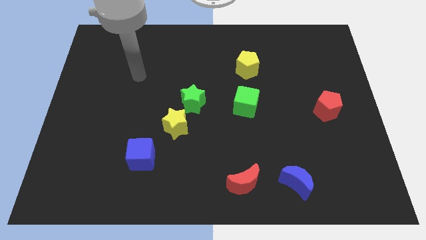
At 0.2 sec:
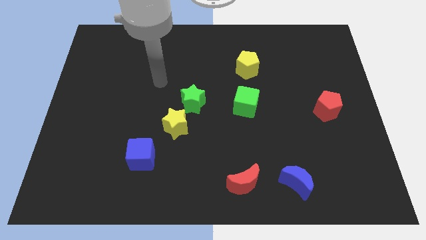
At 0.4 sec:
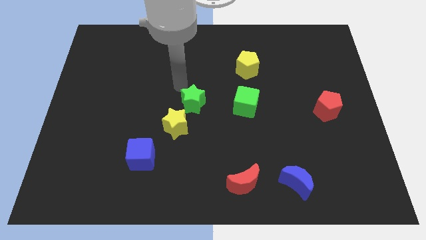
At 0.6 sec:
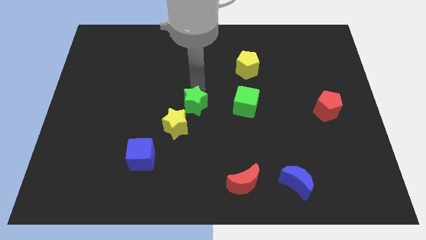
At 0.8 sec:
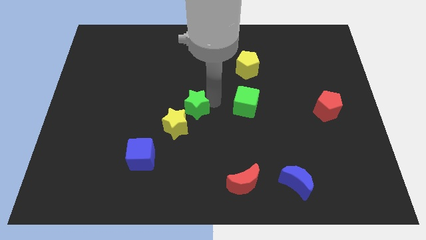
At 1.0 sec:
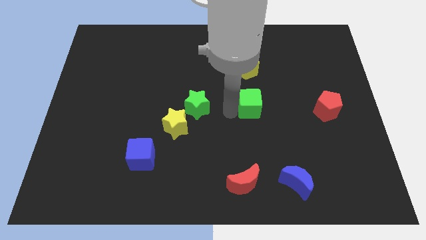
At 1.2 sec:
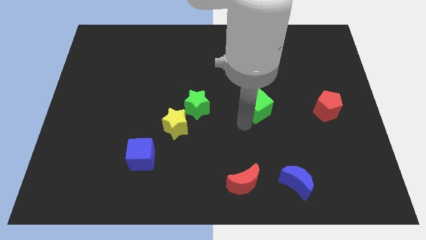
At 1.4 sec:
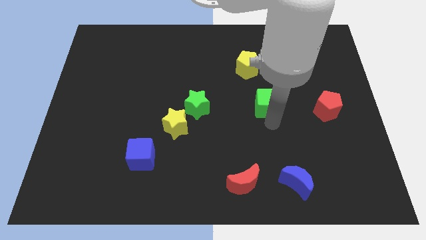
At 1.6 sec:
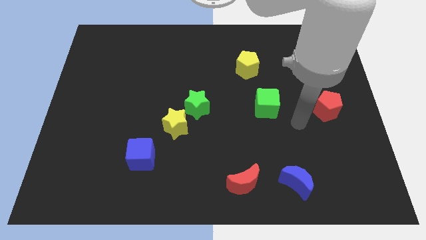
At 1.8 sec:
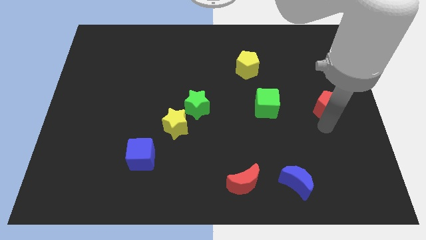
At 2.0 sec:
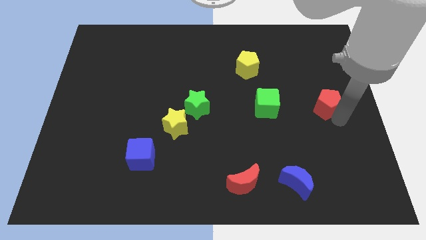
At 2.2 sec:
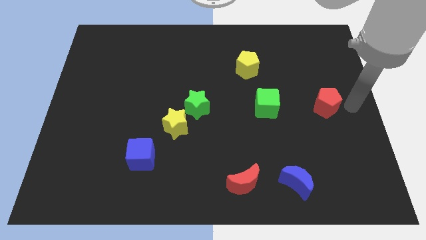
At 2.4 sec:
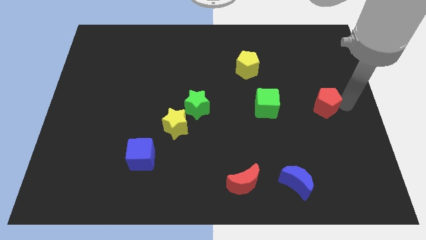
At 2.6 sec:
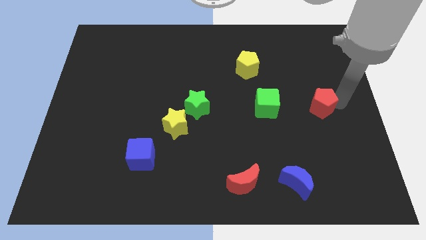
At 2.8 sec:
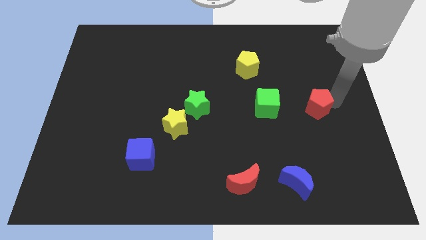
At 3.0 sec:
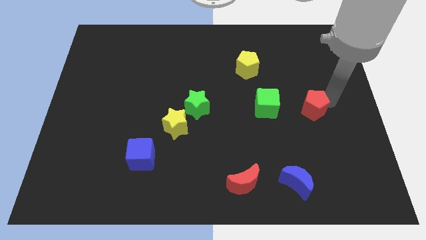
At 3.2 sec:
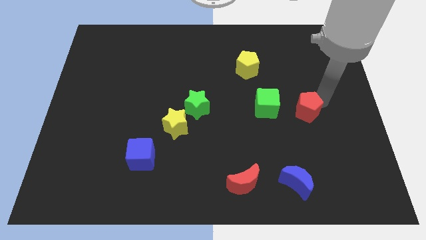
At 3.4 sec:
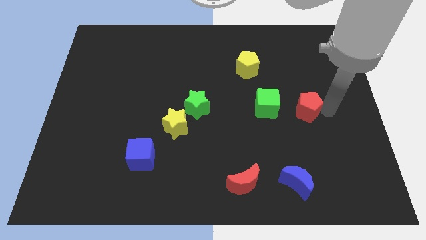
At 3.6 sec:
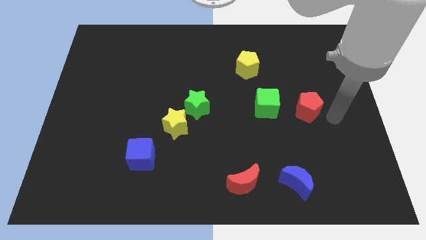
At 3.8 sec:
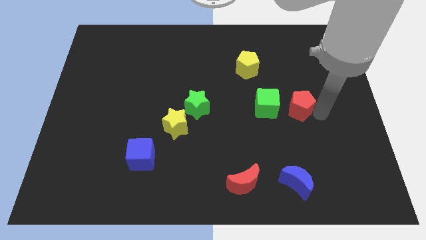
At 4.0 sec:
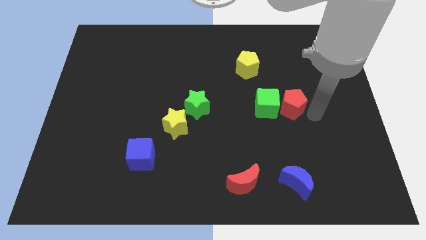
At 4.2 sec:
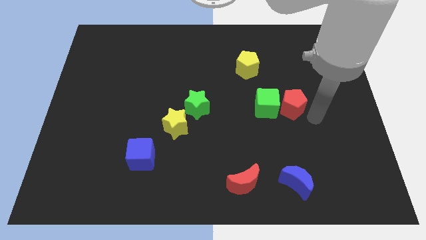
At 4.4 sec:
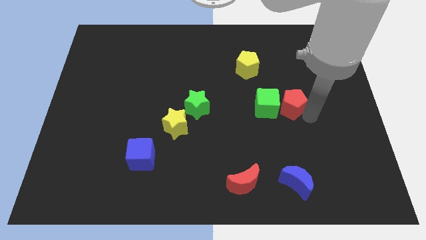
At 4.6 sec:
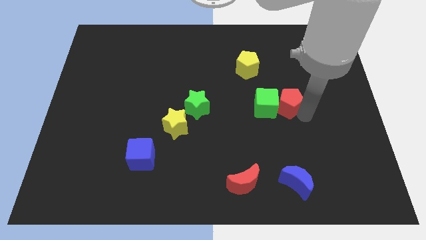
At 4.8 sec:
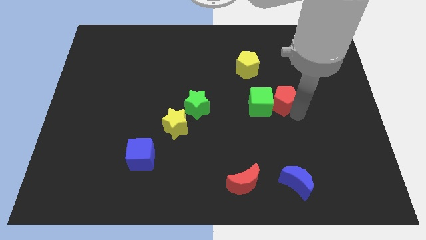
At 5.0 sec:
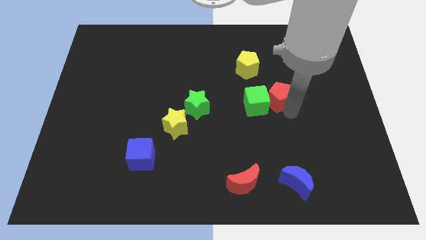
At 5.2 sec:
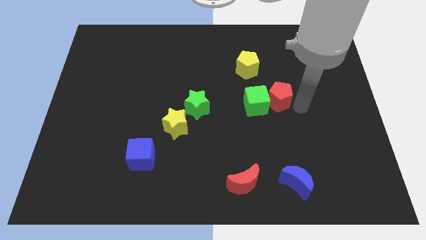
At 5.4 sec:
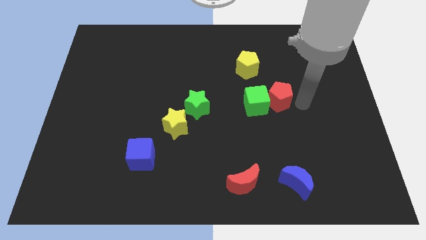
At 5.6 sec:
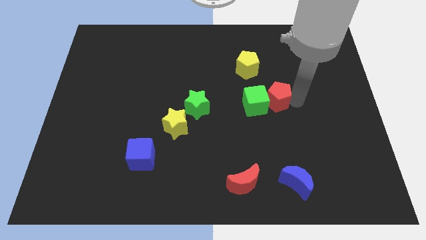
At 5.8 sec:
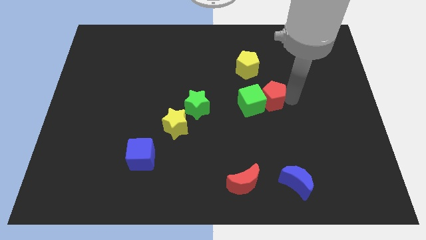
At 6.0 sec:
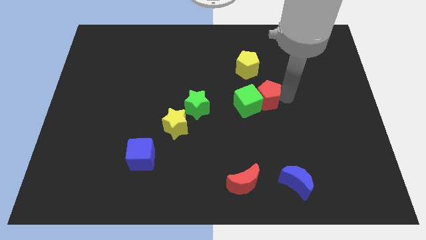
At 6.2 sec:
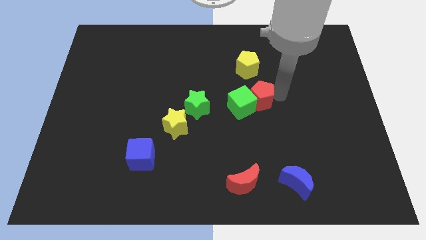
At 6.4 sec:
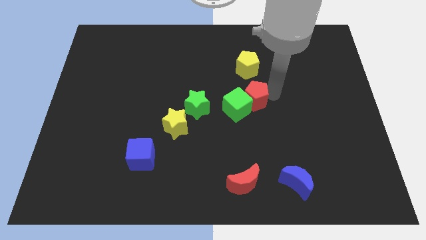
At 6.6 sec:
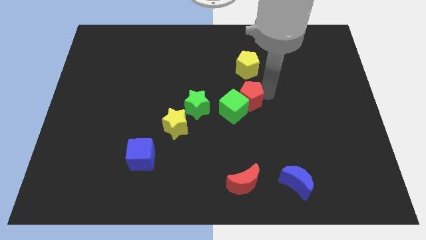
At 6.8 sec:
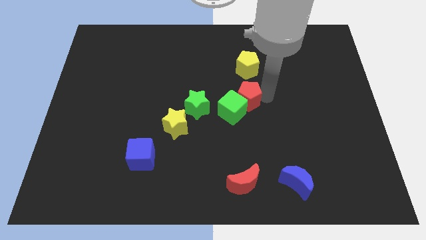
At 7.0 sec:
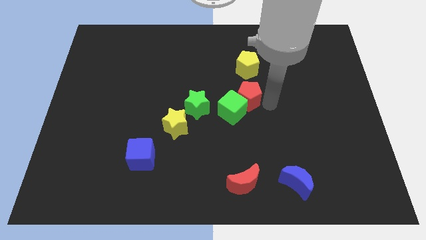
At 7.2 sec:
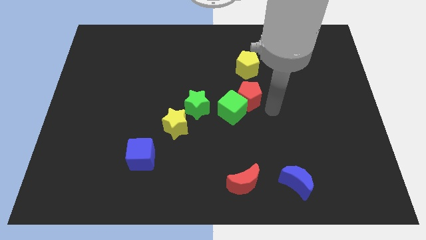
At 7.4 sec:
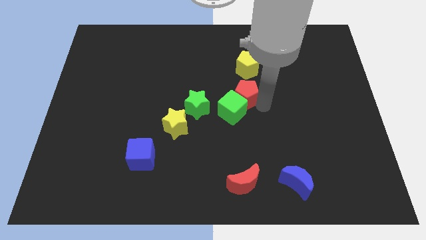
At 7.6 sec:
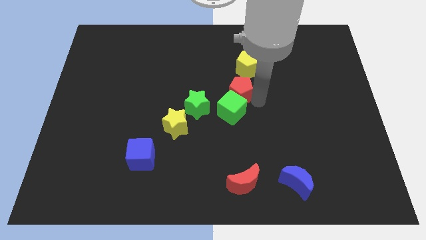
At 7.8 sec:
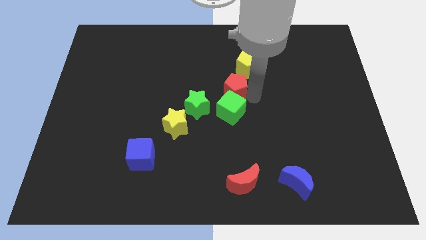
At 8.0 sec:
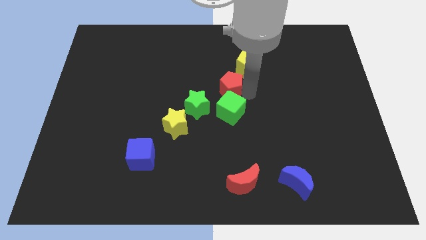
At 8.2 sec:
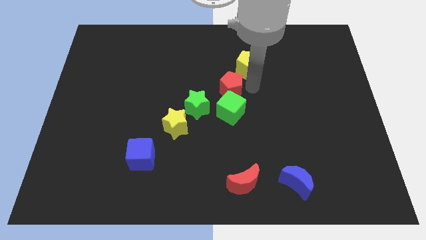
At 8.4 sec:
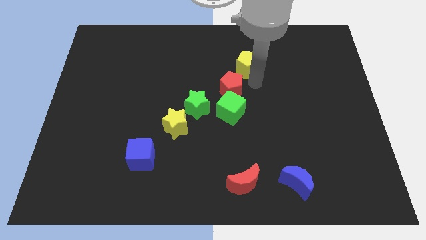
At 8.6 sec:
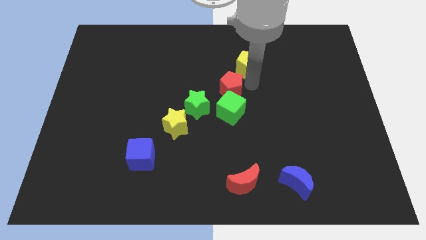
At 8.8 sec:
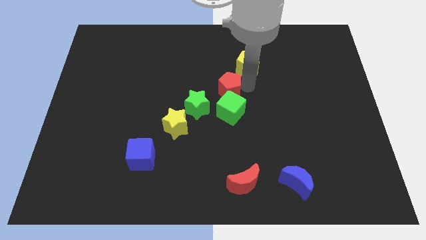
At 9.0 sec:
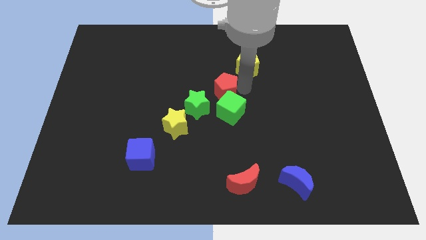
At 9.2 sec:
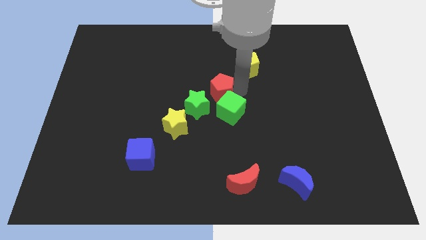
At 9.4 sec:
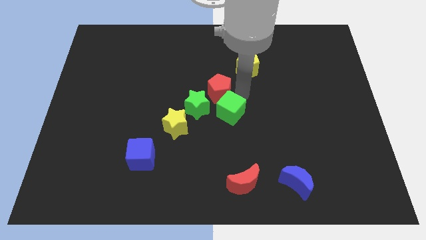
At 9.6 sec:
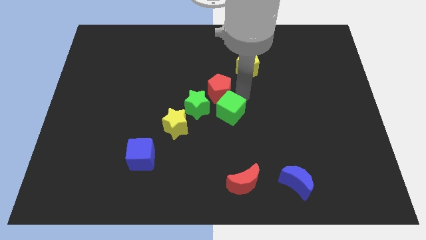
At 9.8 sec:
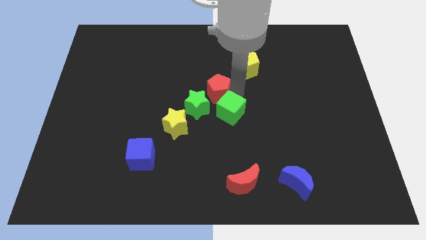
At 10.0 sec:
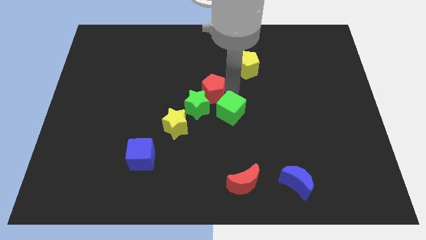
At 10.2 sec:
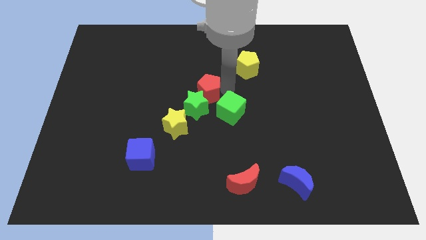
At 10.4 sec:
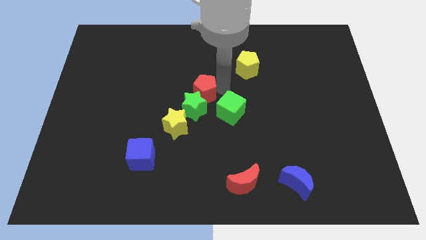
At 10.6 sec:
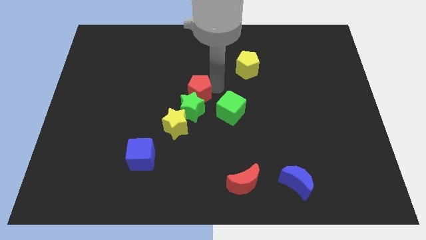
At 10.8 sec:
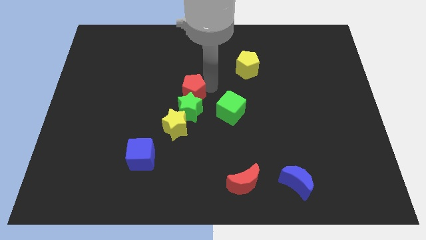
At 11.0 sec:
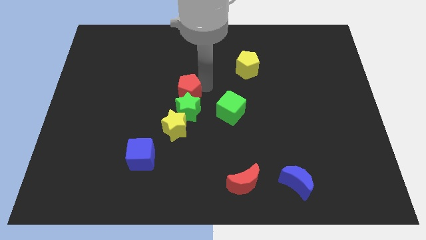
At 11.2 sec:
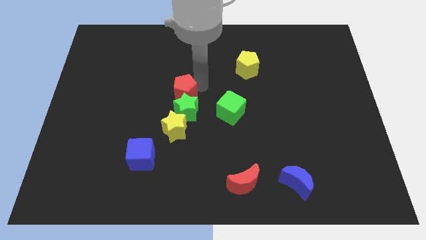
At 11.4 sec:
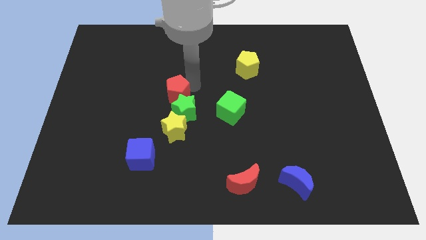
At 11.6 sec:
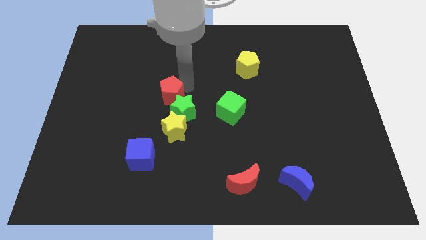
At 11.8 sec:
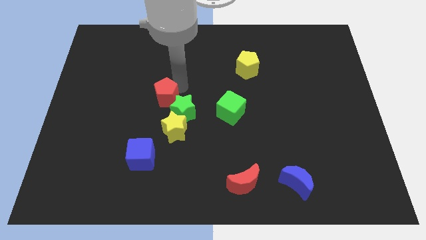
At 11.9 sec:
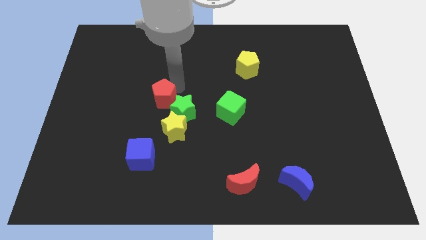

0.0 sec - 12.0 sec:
move the red pentagon to the top left of the yellow star
